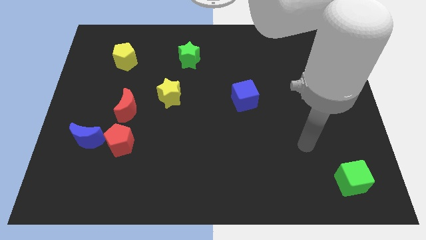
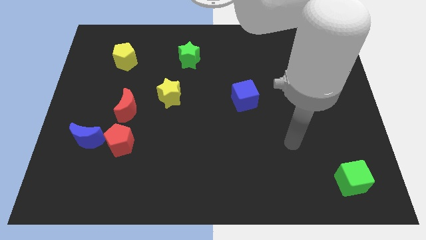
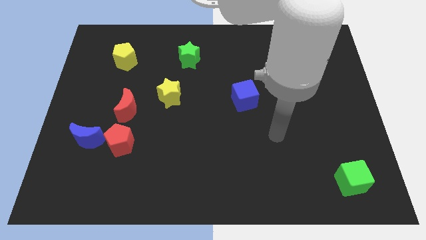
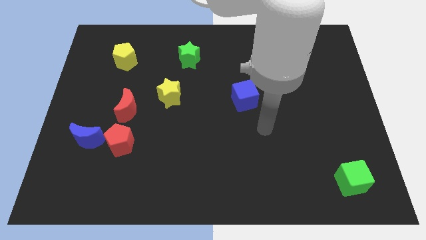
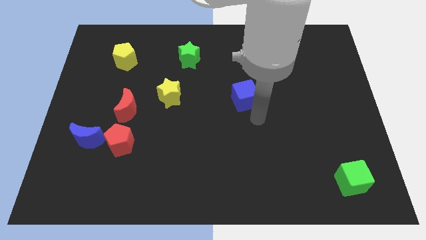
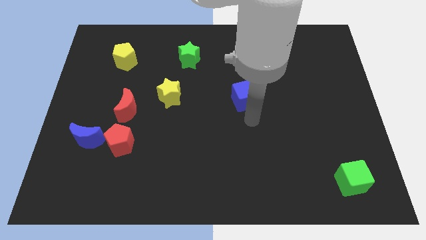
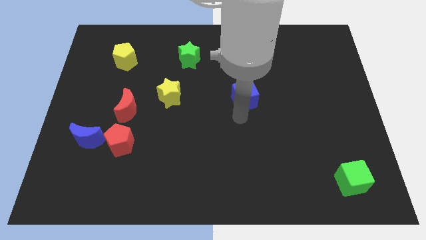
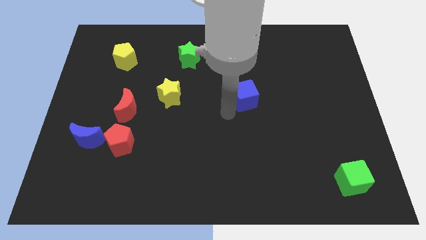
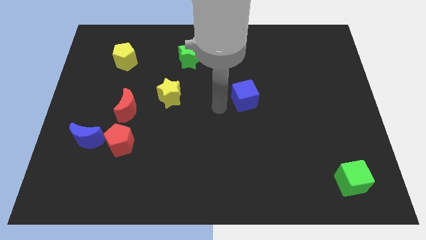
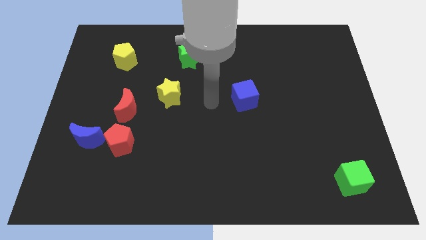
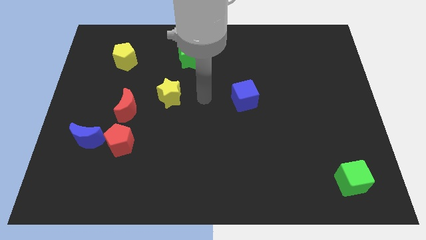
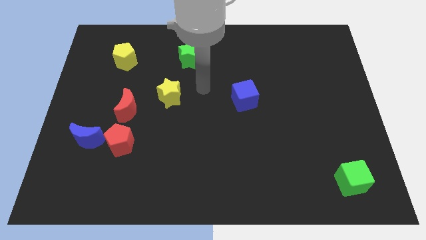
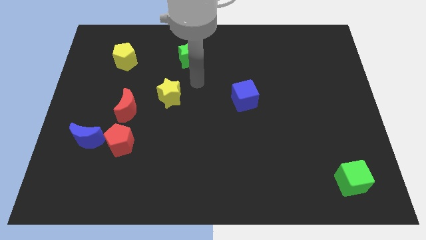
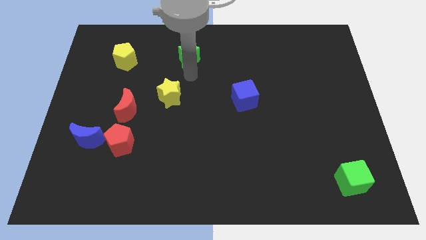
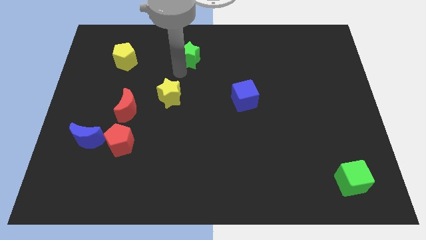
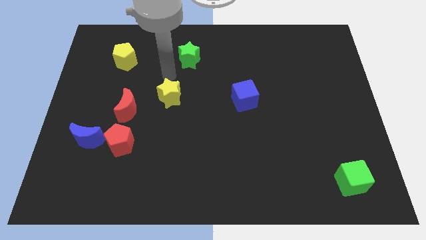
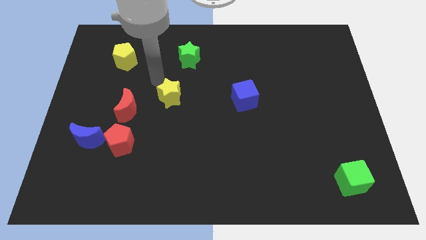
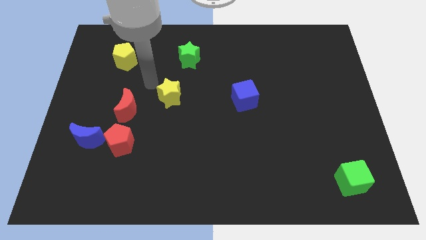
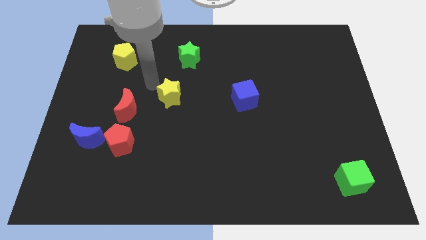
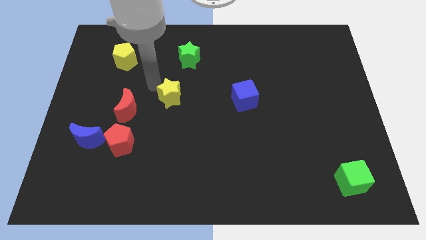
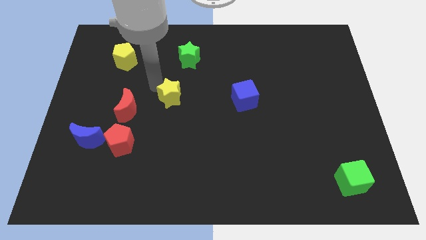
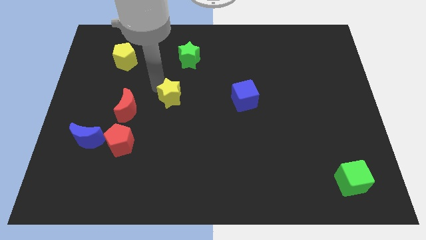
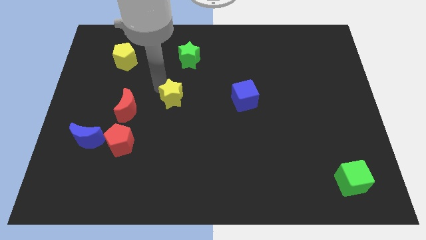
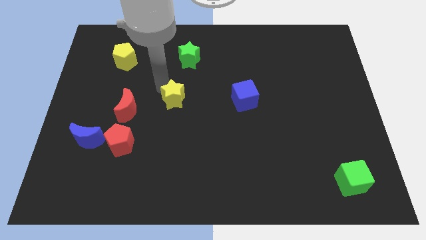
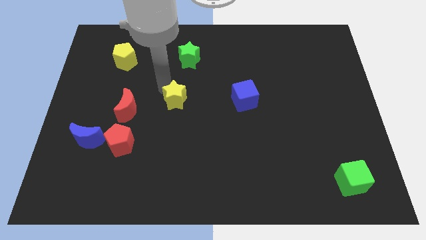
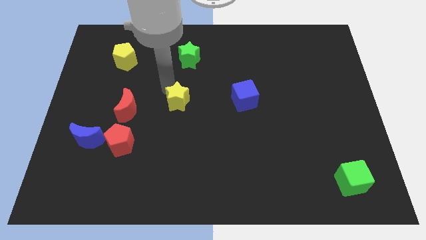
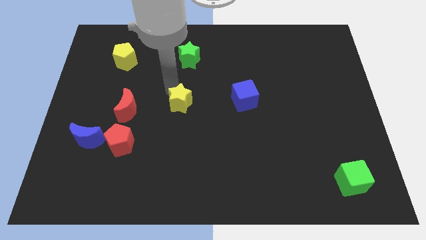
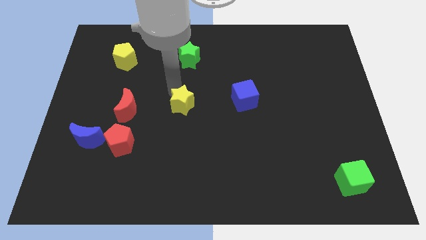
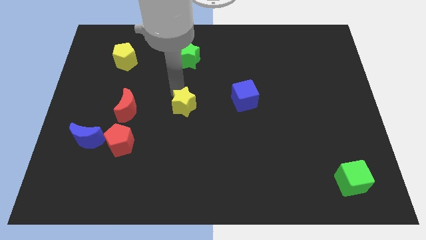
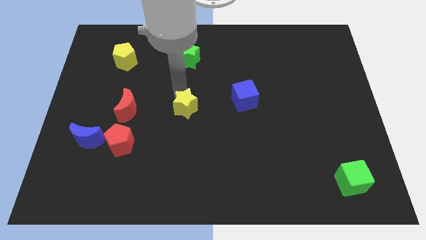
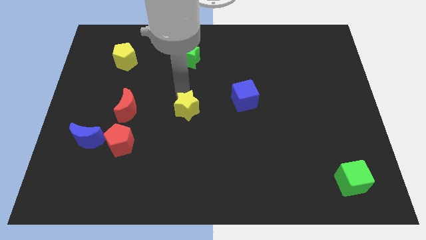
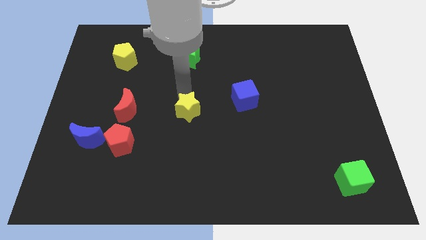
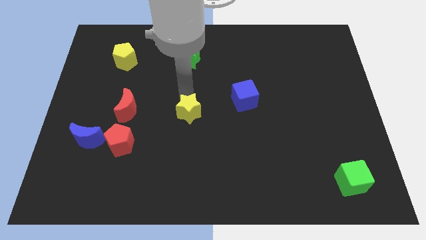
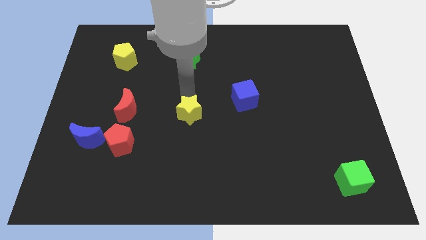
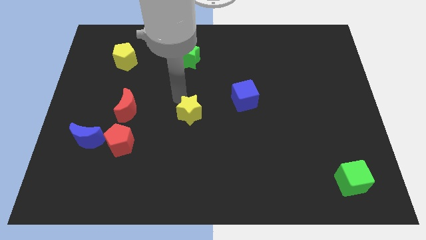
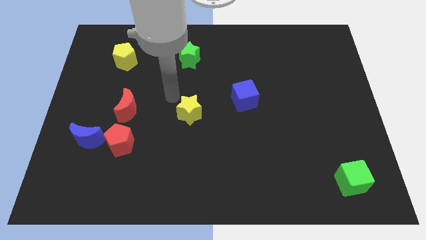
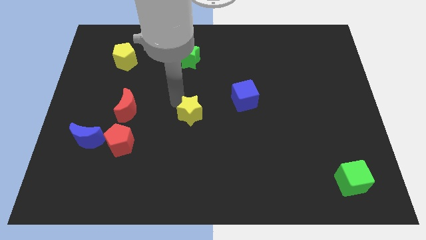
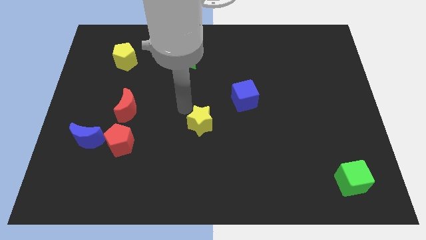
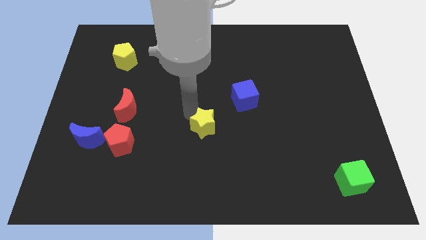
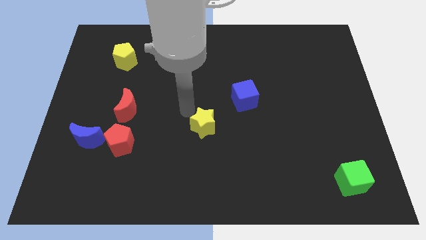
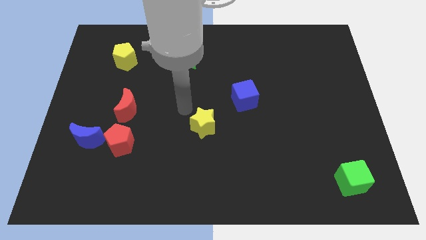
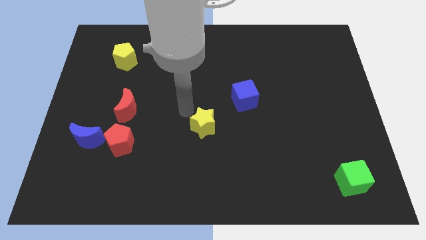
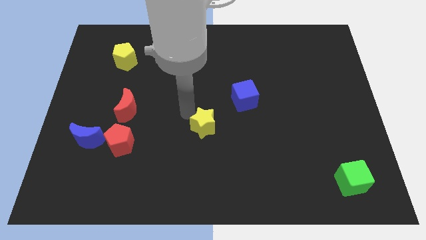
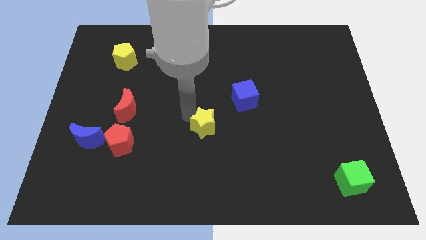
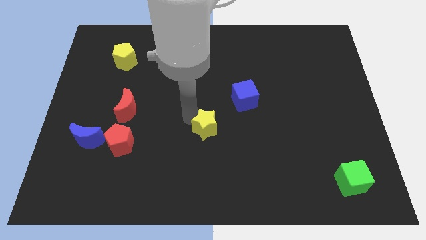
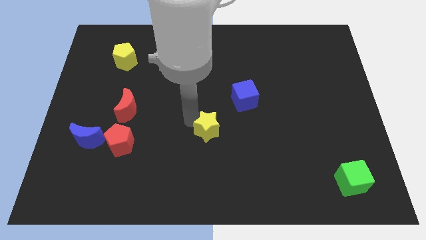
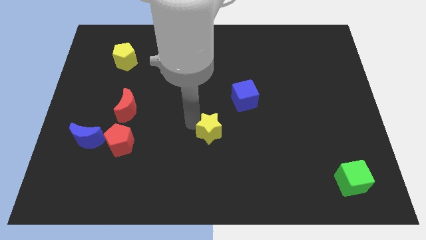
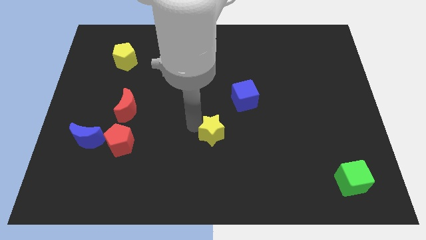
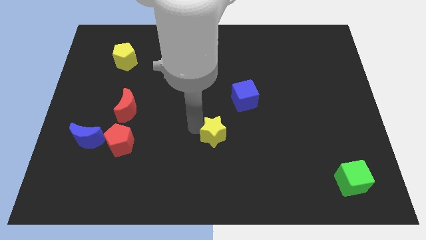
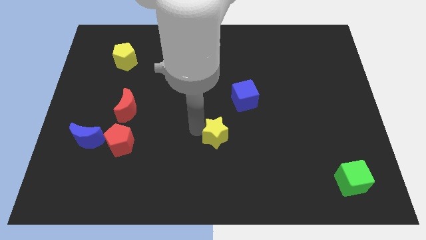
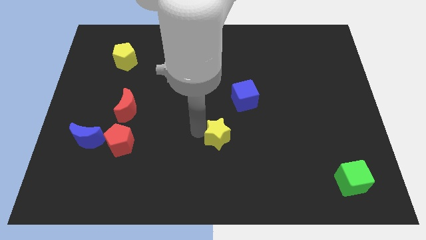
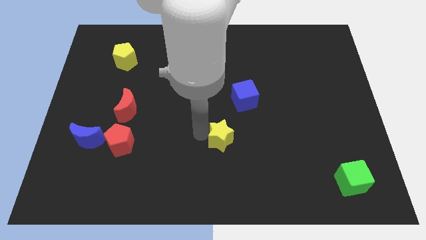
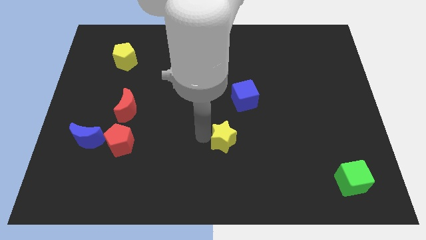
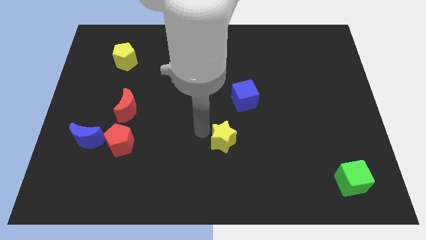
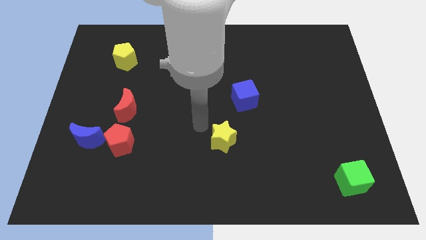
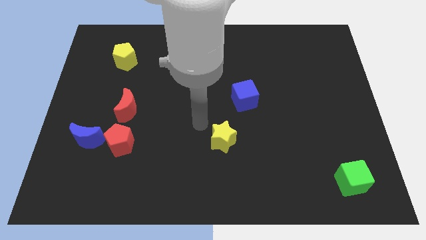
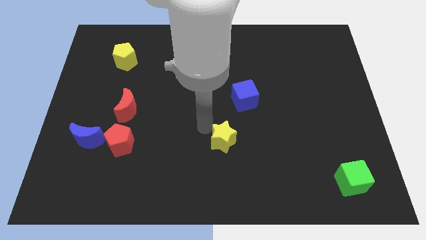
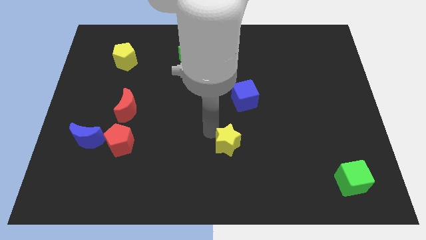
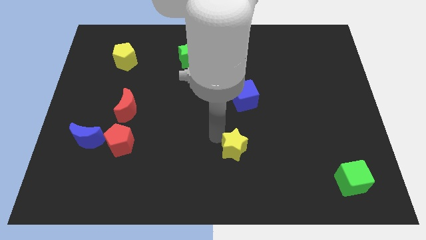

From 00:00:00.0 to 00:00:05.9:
move the yellow star diagonally down and right

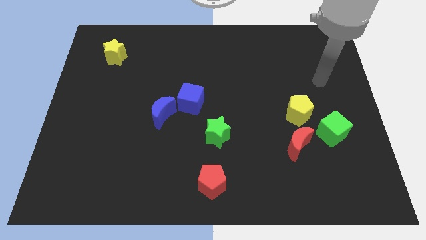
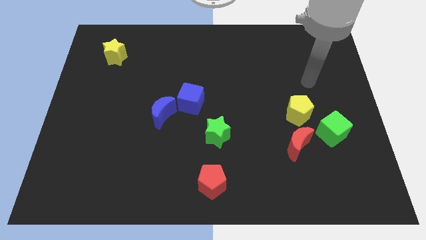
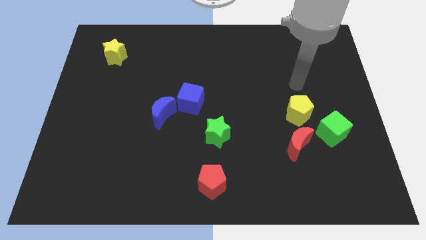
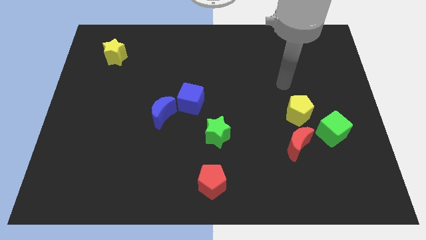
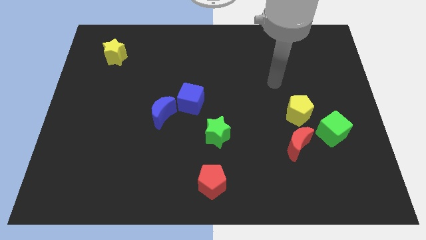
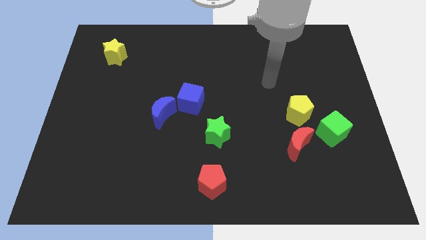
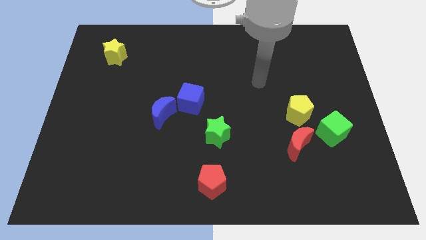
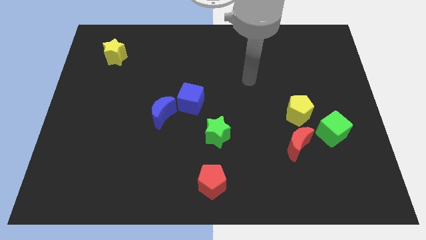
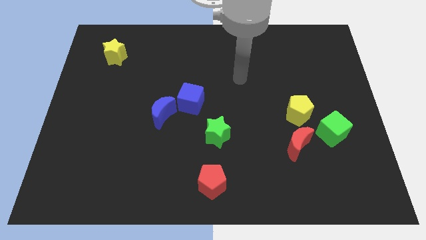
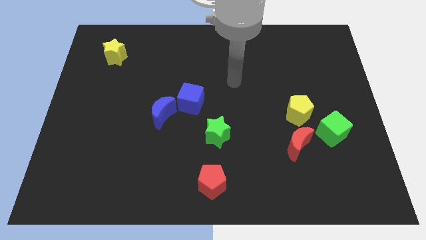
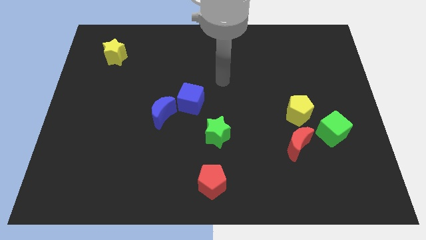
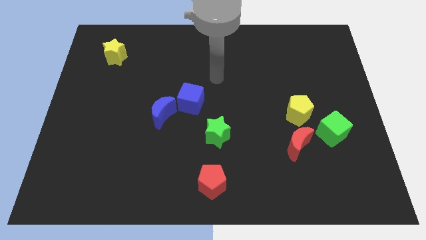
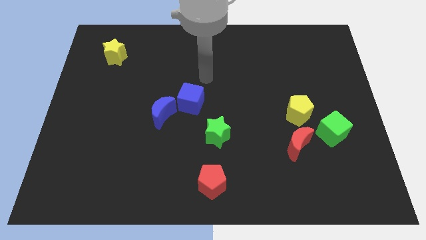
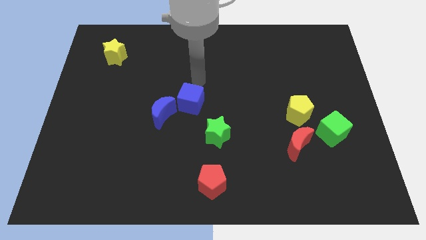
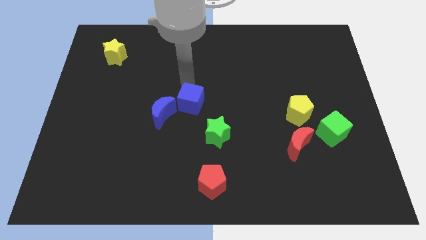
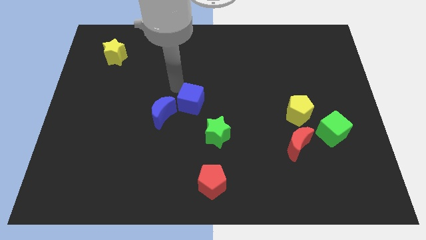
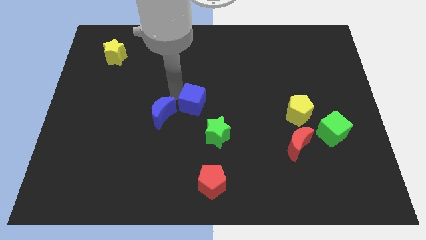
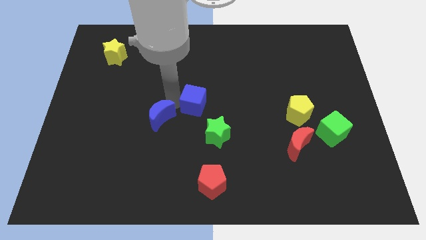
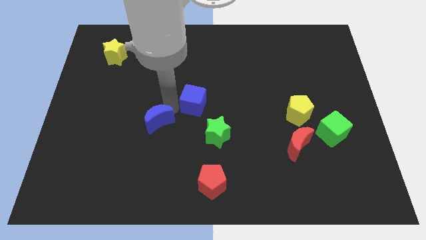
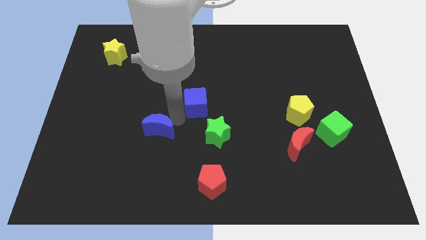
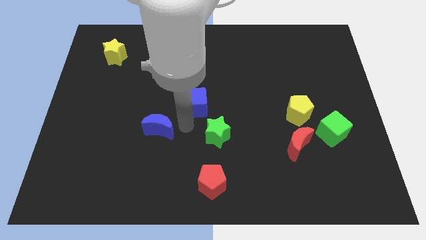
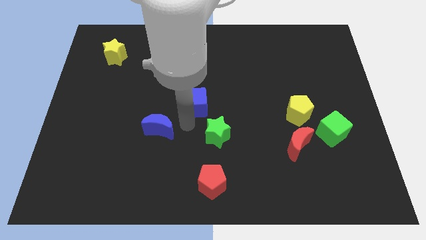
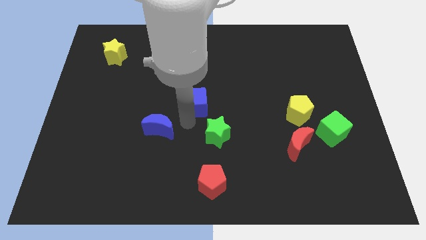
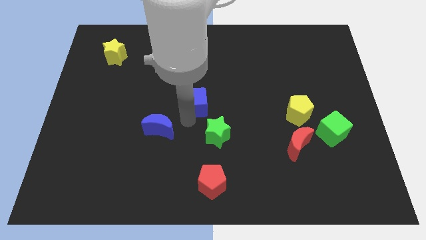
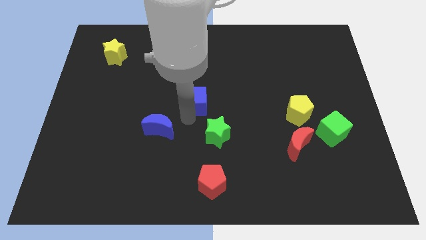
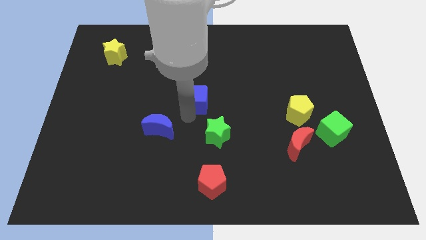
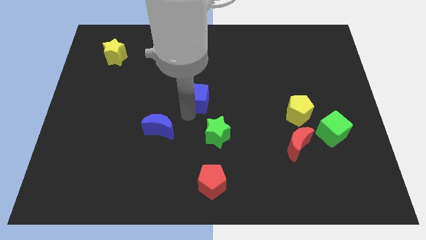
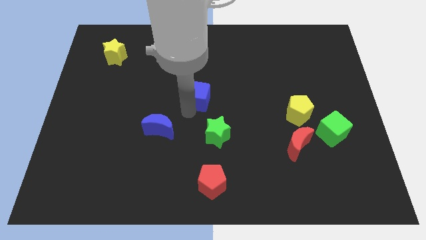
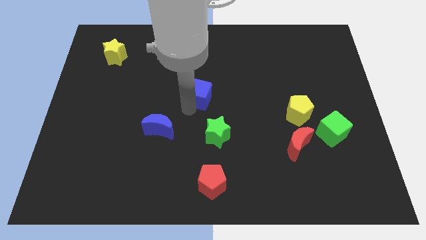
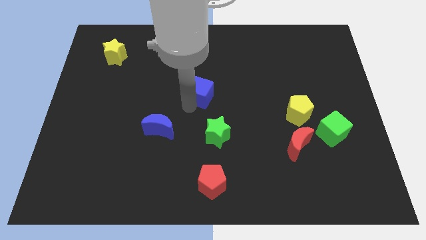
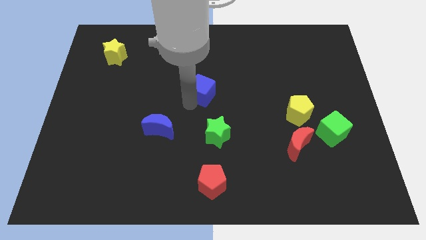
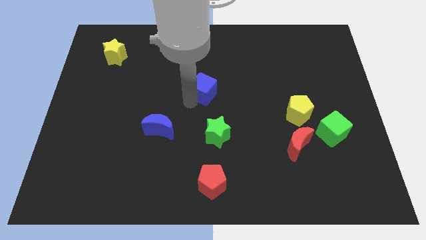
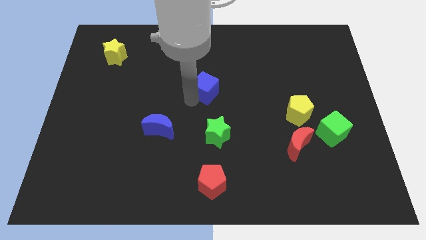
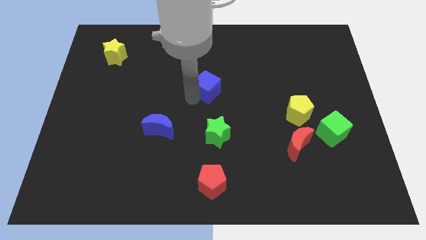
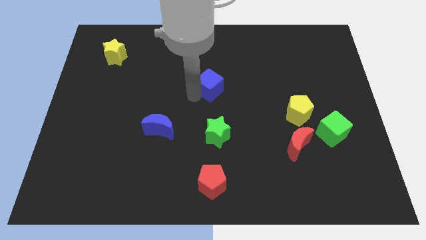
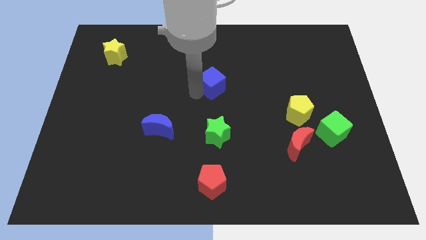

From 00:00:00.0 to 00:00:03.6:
slide the blue cube up and to the right a little bit
